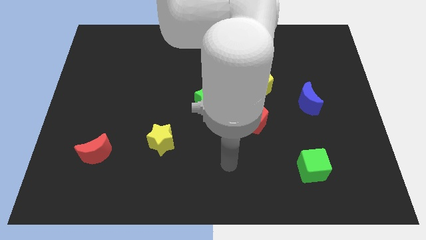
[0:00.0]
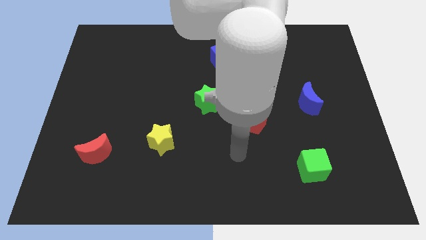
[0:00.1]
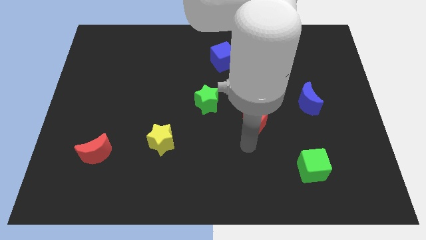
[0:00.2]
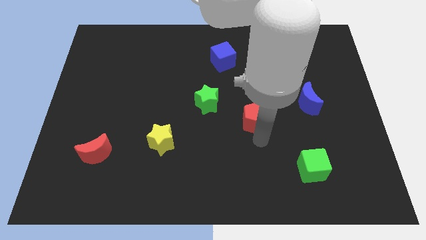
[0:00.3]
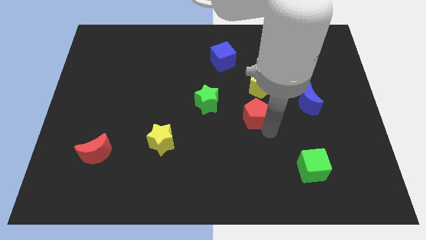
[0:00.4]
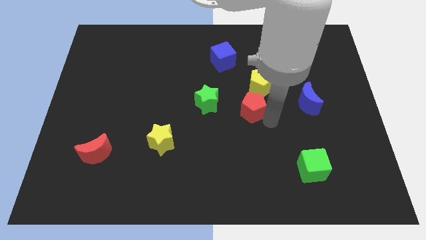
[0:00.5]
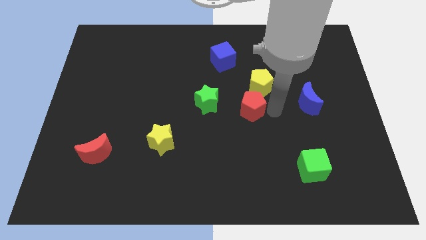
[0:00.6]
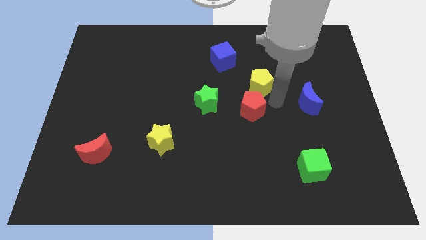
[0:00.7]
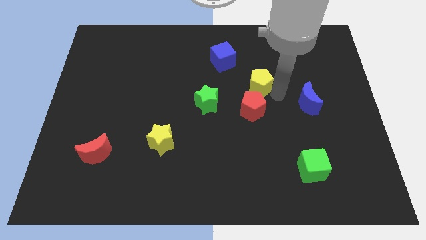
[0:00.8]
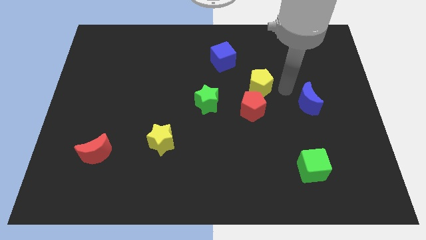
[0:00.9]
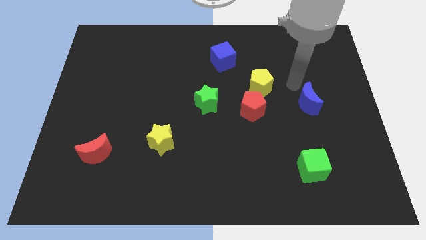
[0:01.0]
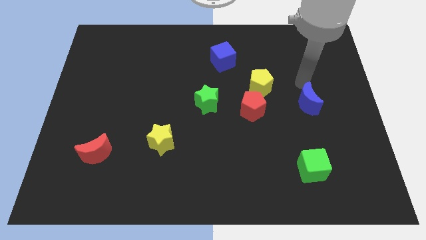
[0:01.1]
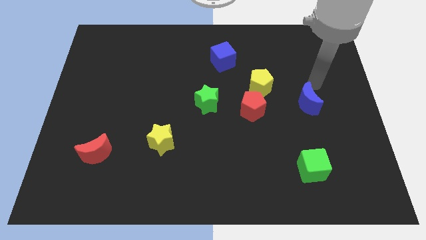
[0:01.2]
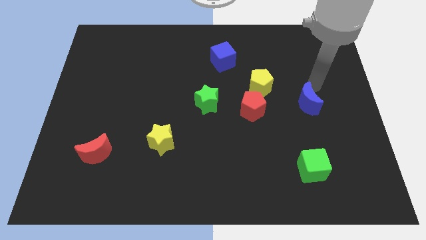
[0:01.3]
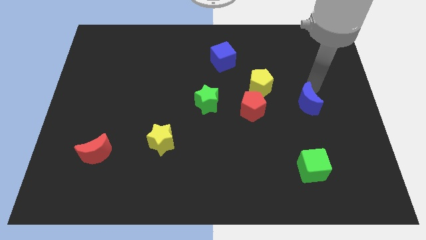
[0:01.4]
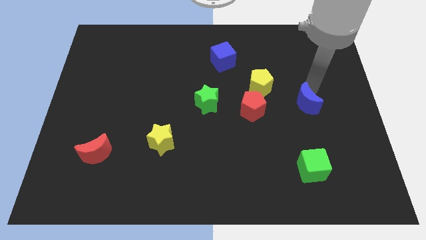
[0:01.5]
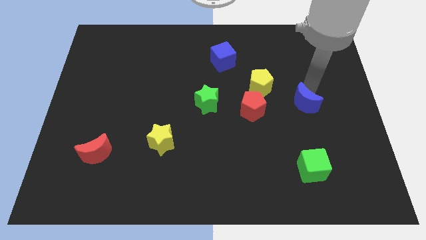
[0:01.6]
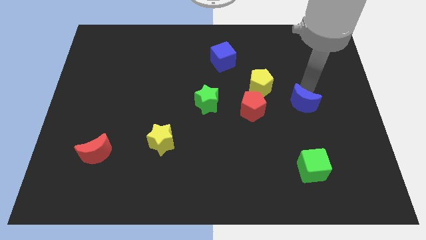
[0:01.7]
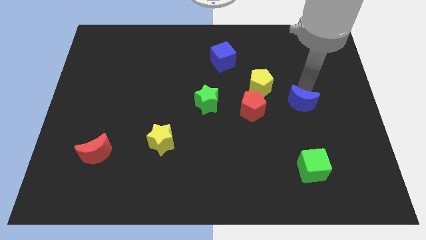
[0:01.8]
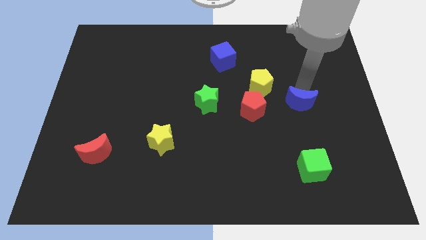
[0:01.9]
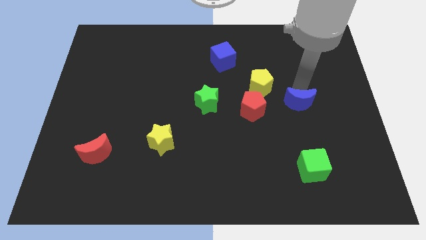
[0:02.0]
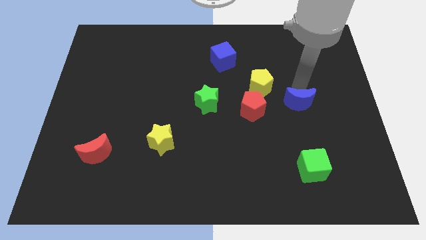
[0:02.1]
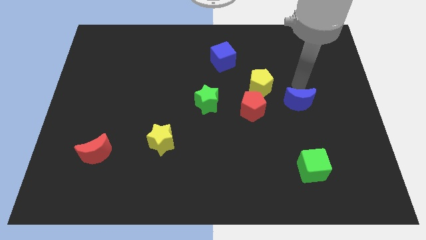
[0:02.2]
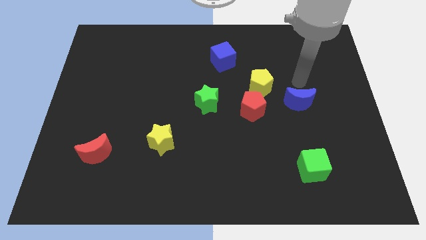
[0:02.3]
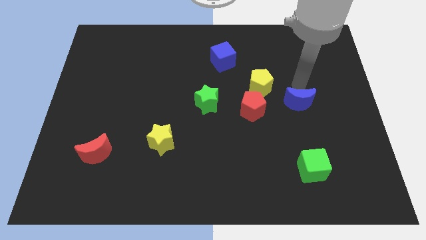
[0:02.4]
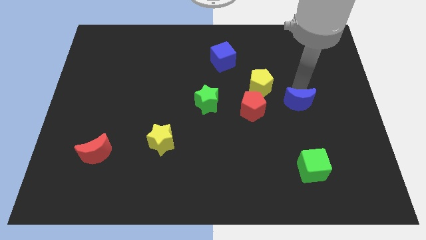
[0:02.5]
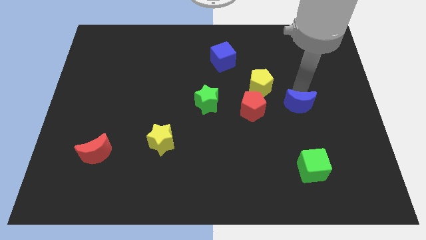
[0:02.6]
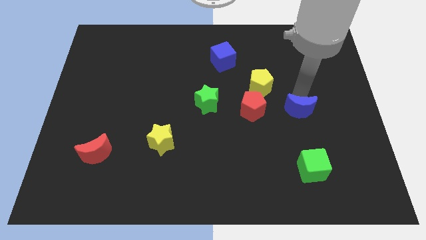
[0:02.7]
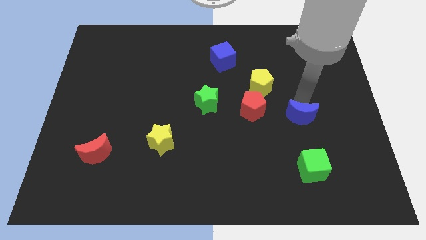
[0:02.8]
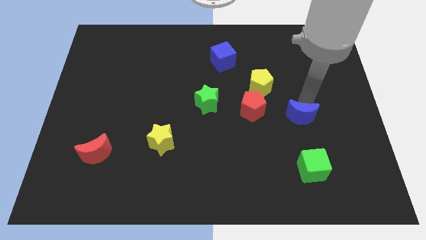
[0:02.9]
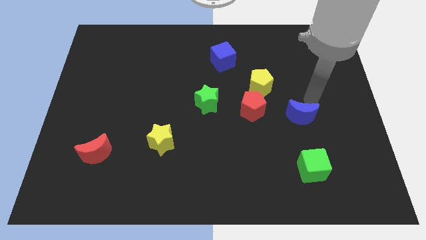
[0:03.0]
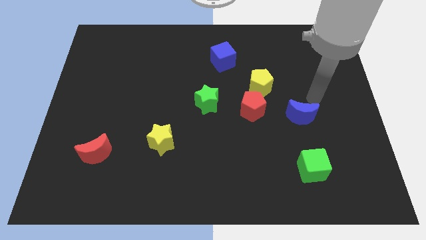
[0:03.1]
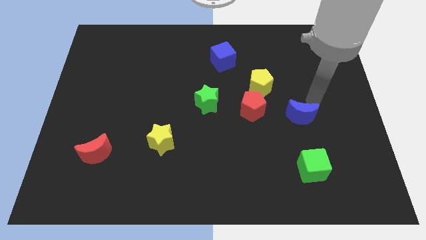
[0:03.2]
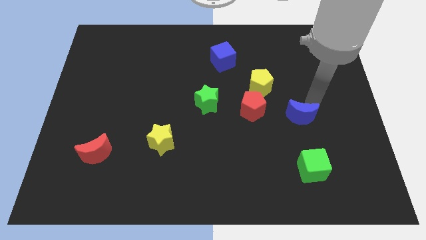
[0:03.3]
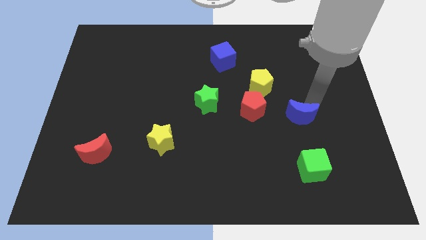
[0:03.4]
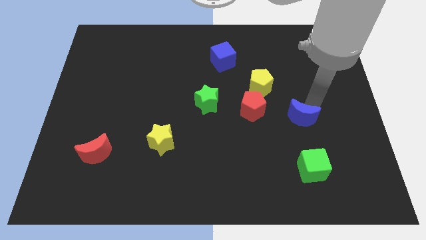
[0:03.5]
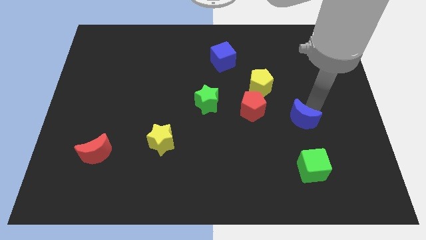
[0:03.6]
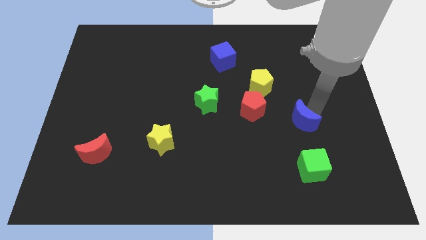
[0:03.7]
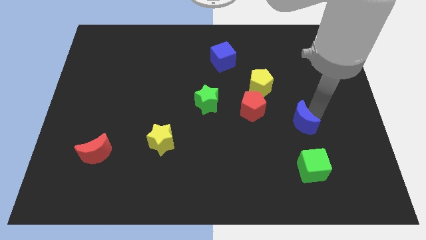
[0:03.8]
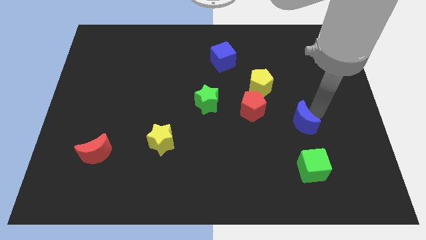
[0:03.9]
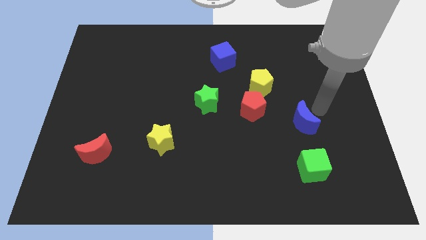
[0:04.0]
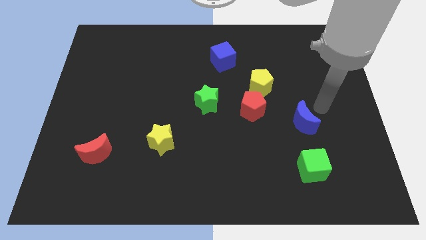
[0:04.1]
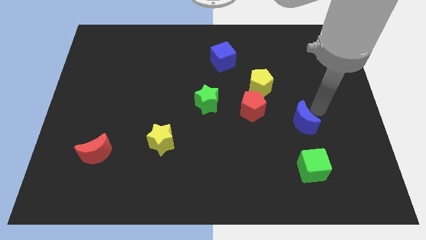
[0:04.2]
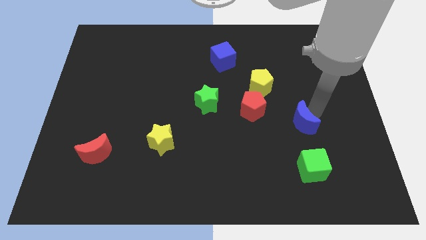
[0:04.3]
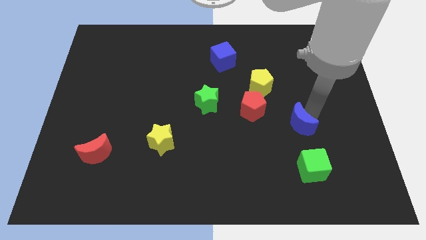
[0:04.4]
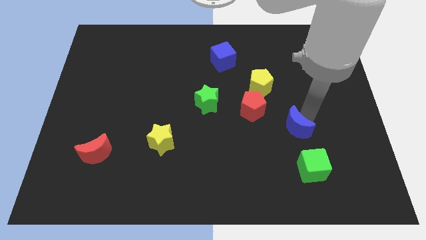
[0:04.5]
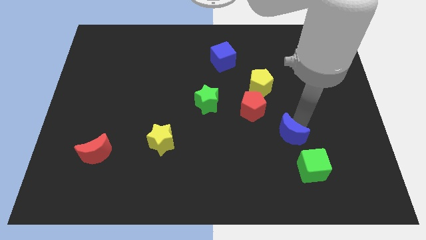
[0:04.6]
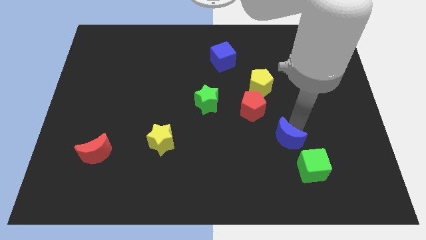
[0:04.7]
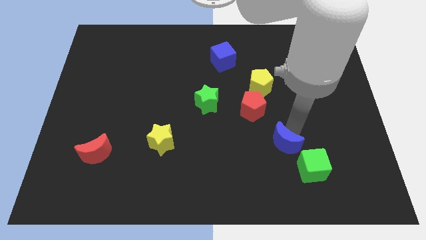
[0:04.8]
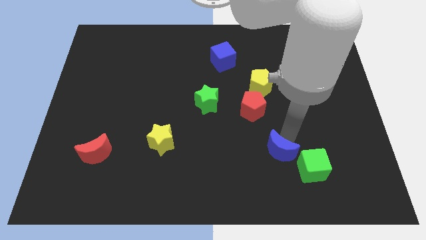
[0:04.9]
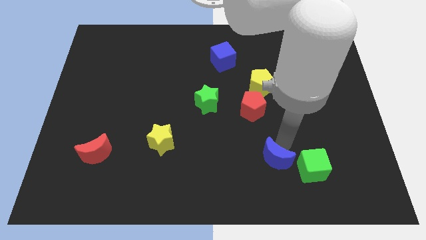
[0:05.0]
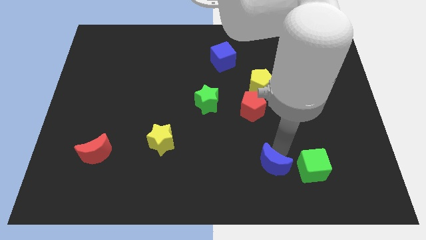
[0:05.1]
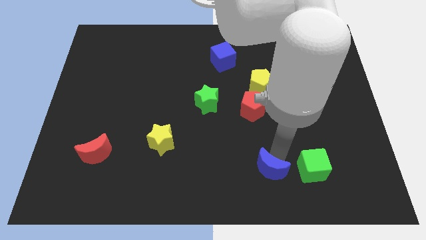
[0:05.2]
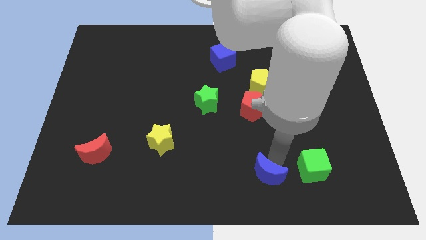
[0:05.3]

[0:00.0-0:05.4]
push the blue moon to the bottom side

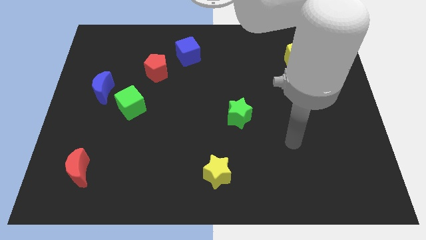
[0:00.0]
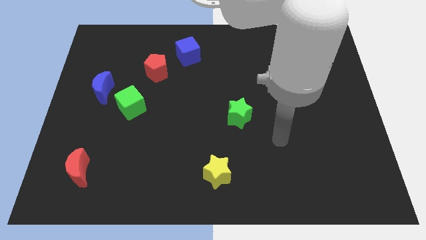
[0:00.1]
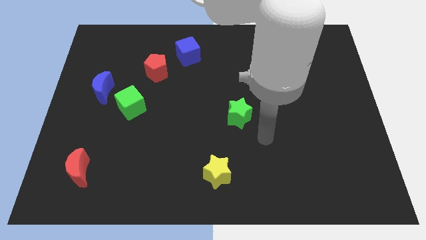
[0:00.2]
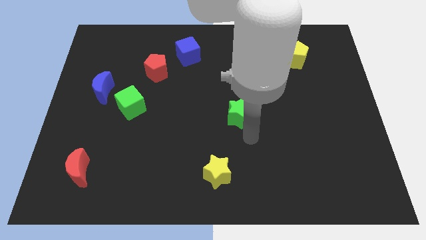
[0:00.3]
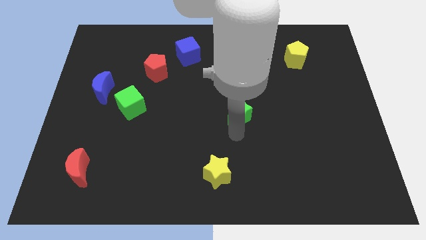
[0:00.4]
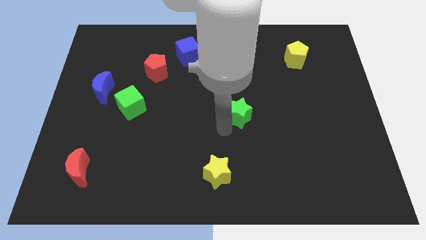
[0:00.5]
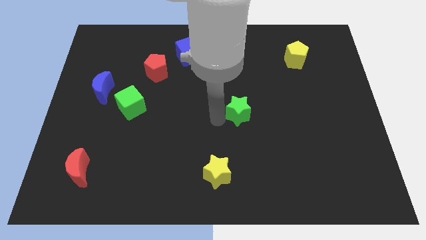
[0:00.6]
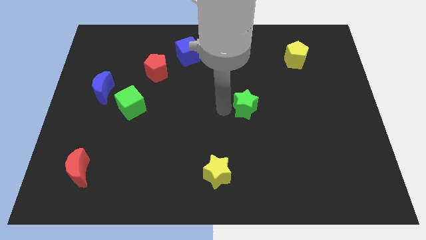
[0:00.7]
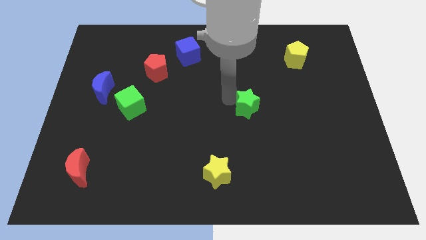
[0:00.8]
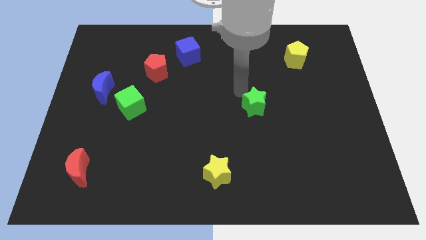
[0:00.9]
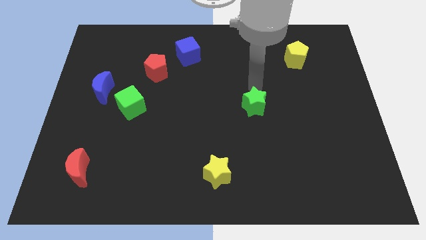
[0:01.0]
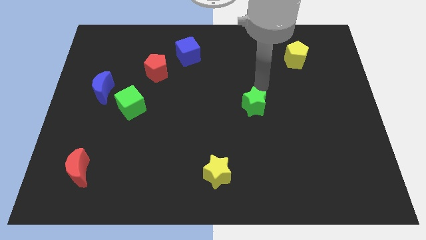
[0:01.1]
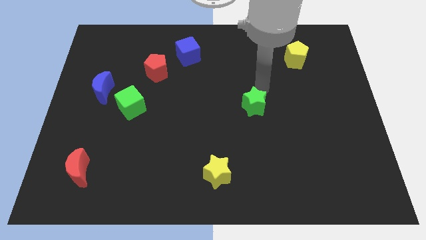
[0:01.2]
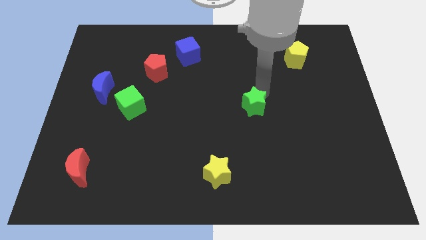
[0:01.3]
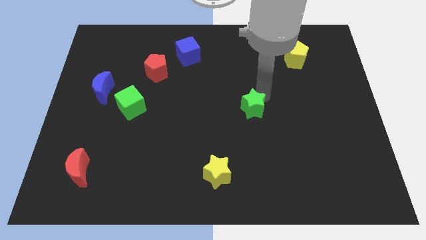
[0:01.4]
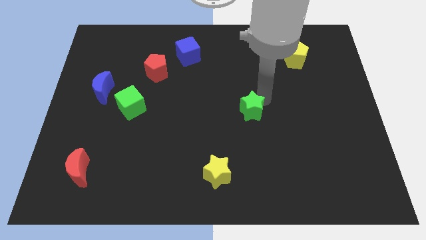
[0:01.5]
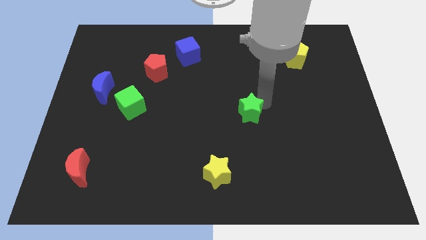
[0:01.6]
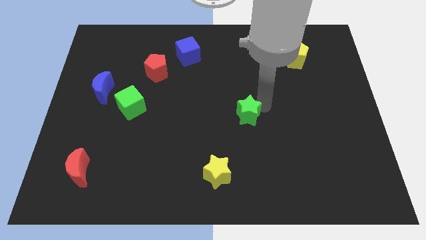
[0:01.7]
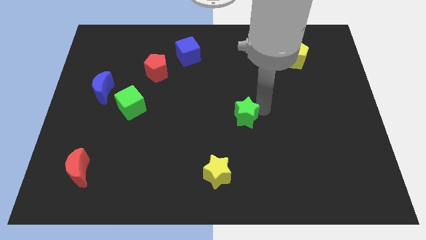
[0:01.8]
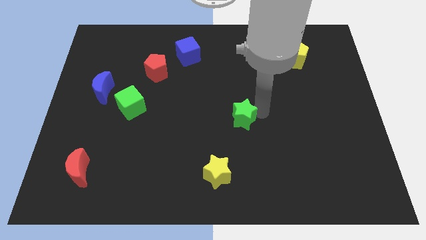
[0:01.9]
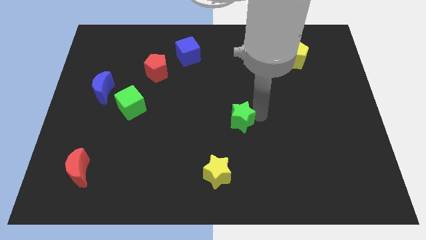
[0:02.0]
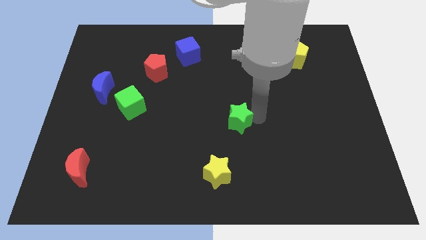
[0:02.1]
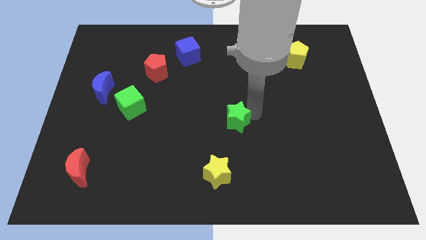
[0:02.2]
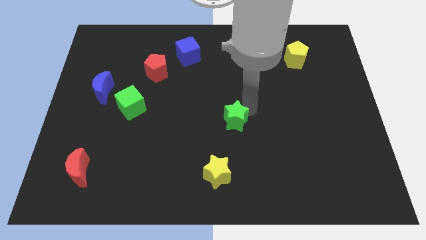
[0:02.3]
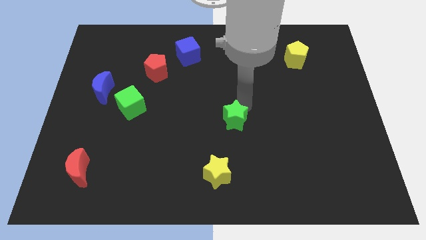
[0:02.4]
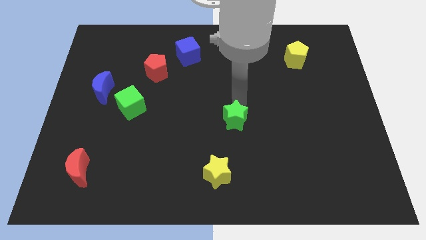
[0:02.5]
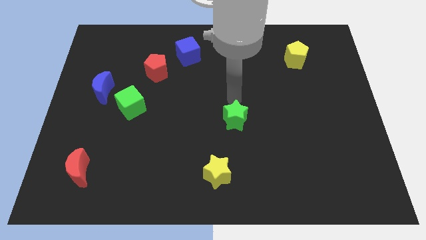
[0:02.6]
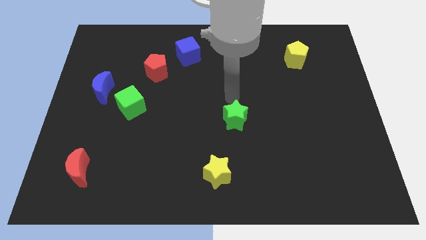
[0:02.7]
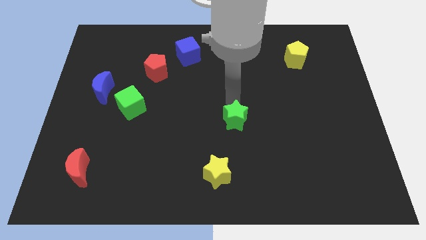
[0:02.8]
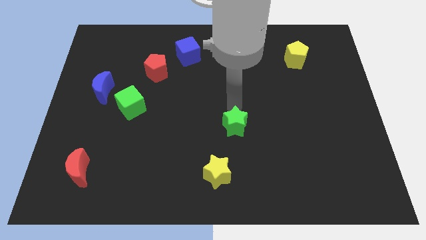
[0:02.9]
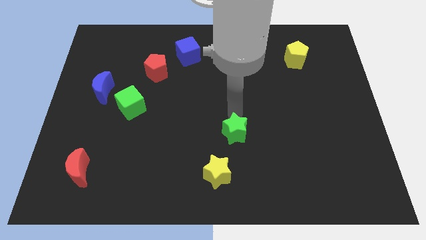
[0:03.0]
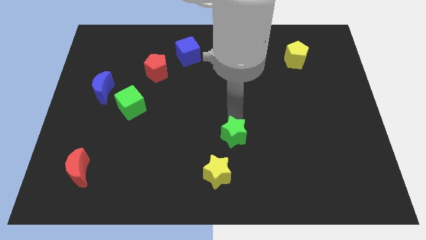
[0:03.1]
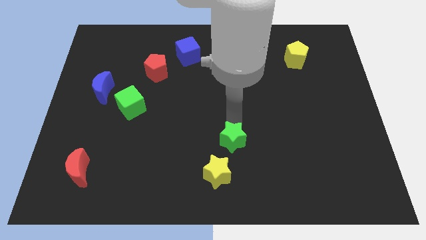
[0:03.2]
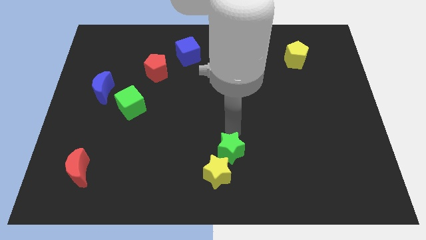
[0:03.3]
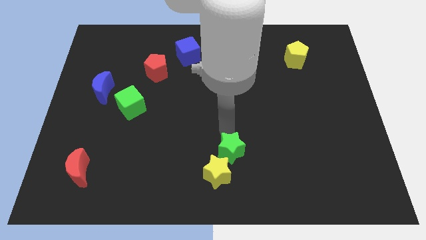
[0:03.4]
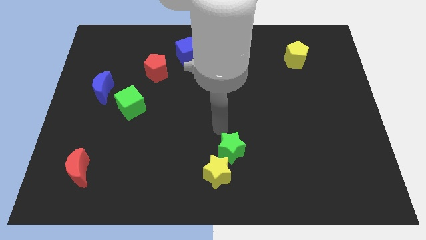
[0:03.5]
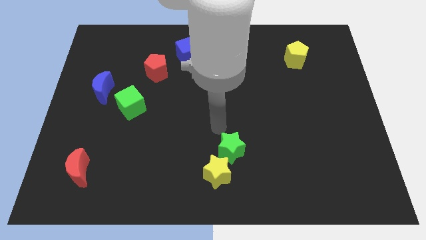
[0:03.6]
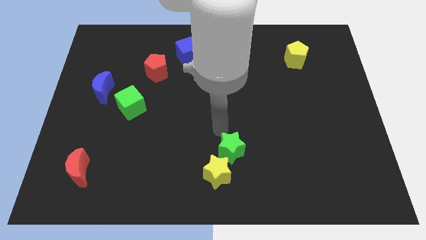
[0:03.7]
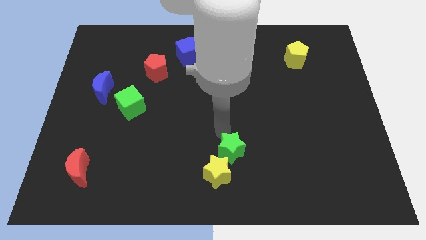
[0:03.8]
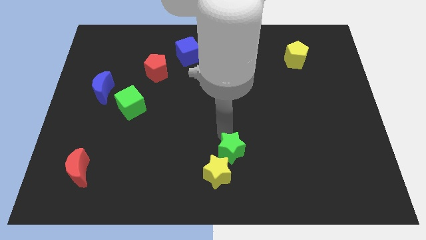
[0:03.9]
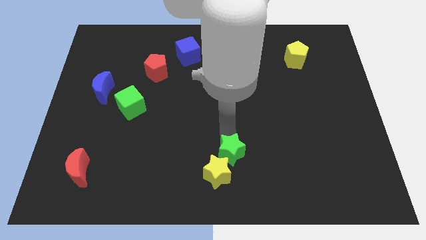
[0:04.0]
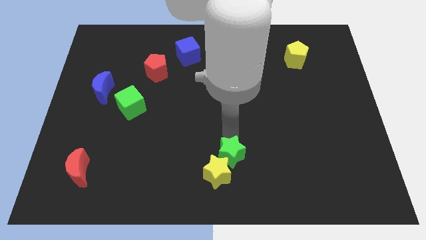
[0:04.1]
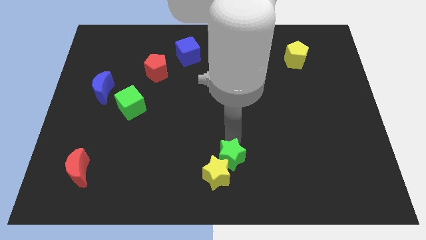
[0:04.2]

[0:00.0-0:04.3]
slide the green star to the bottom side
